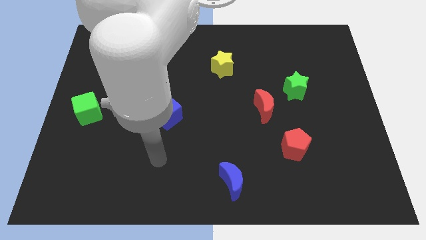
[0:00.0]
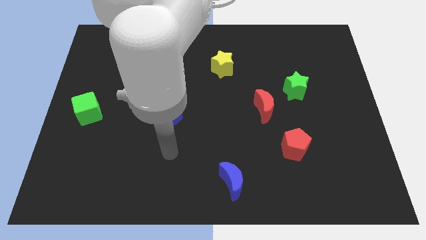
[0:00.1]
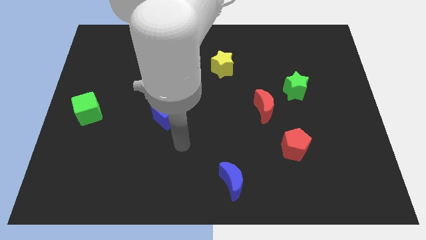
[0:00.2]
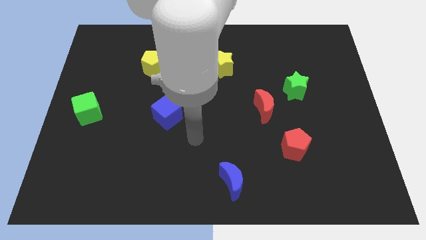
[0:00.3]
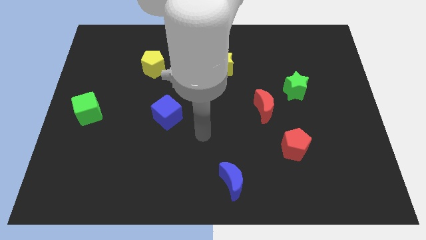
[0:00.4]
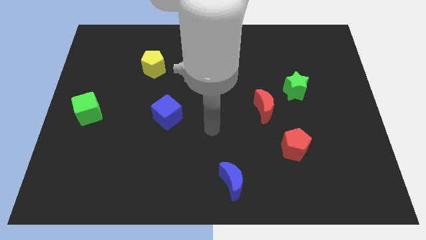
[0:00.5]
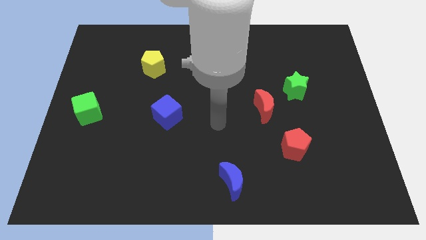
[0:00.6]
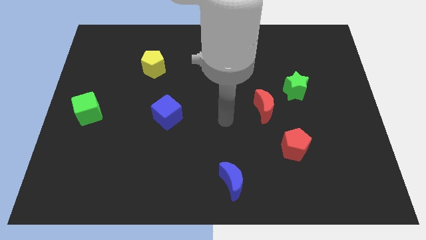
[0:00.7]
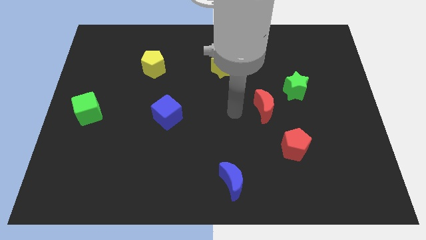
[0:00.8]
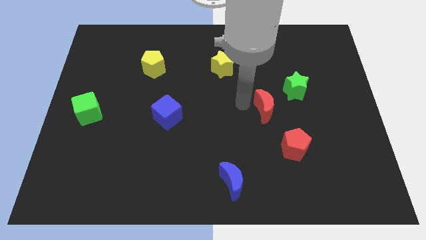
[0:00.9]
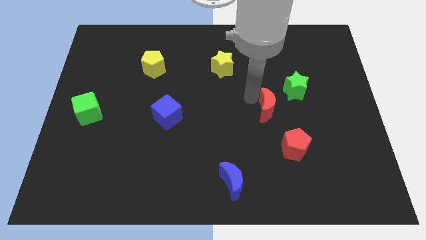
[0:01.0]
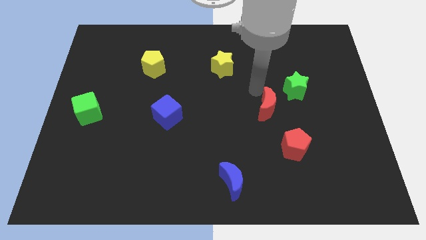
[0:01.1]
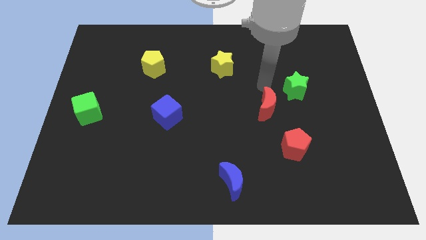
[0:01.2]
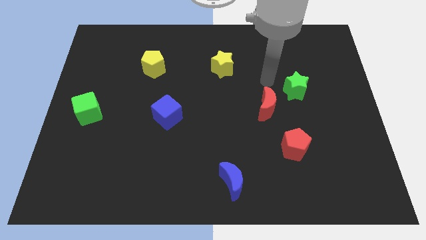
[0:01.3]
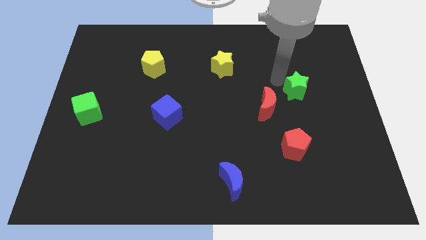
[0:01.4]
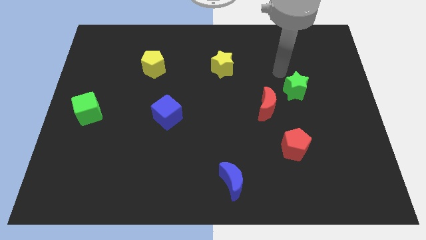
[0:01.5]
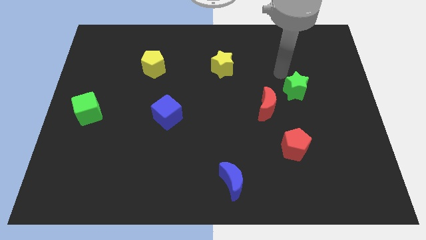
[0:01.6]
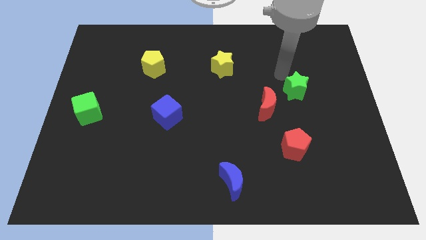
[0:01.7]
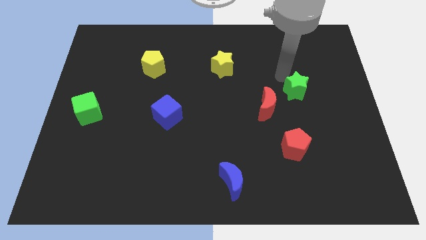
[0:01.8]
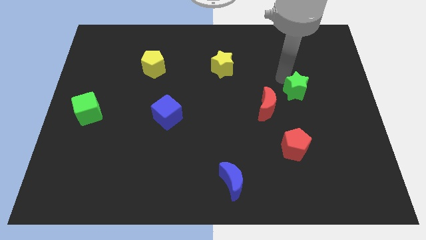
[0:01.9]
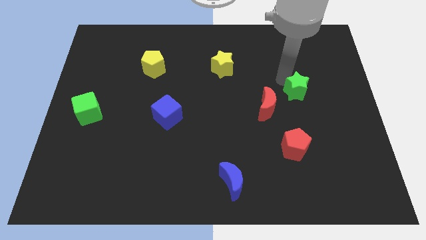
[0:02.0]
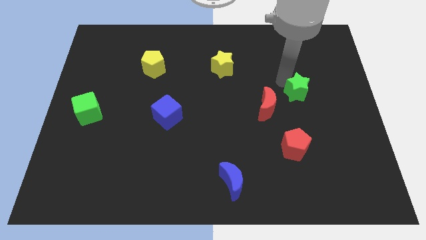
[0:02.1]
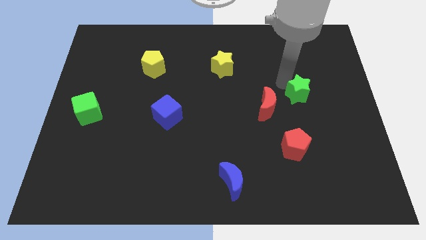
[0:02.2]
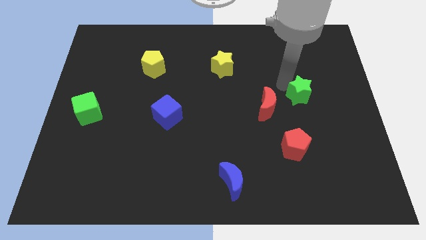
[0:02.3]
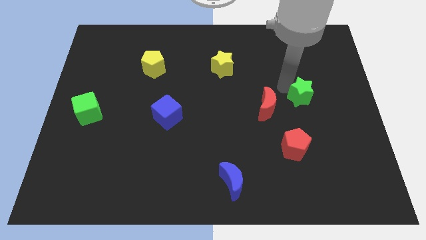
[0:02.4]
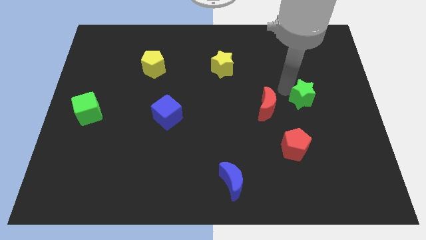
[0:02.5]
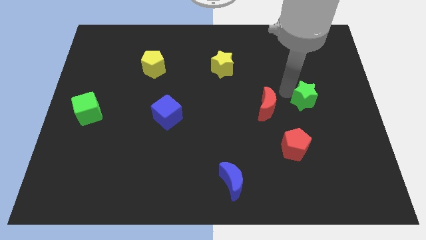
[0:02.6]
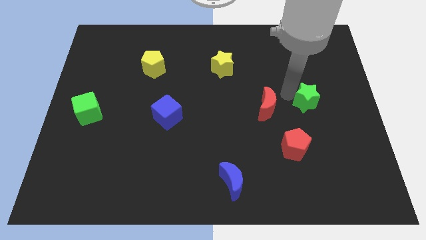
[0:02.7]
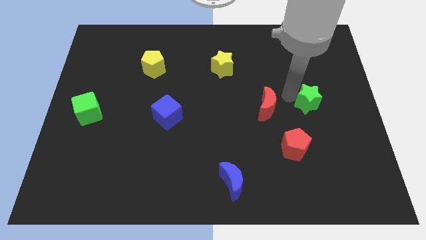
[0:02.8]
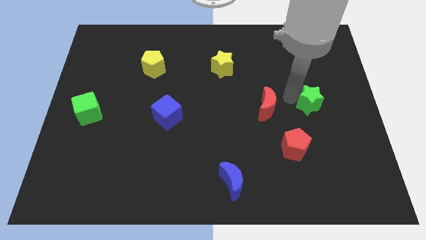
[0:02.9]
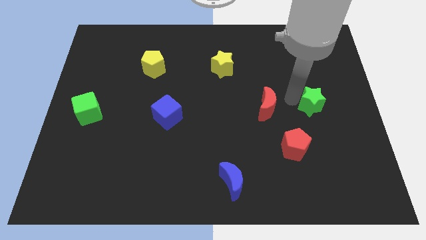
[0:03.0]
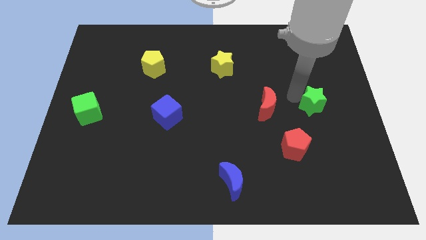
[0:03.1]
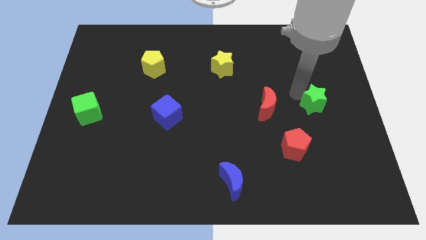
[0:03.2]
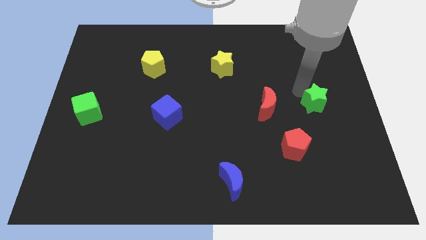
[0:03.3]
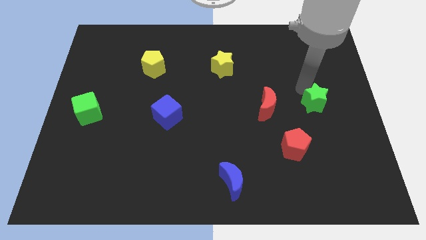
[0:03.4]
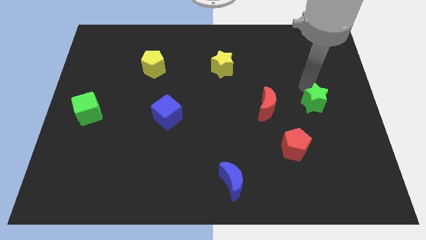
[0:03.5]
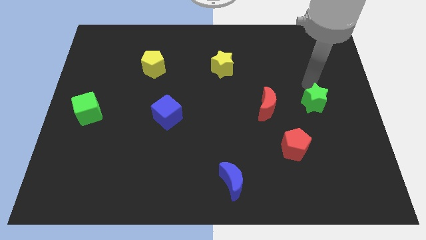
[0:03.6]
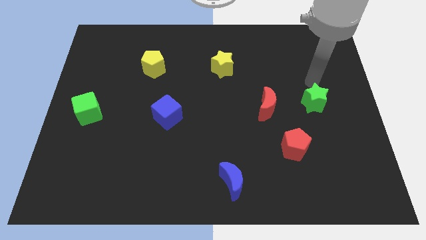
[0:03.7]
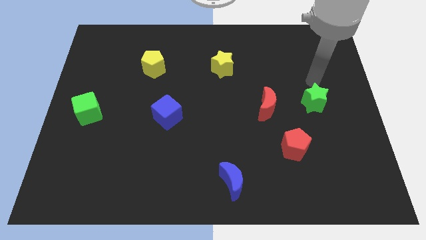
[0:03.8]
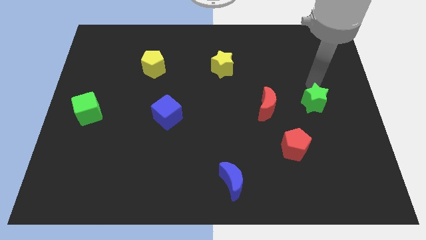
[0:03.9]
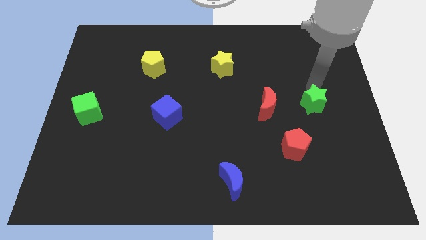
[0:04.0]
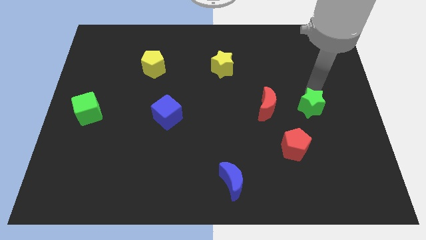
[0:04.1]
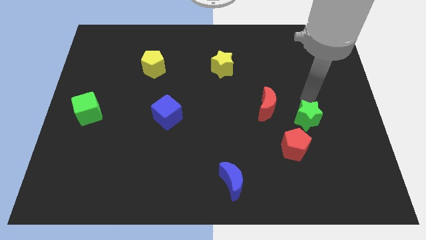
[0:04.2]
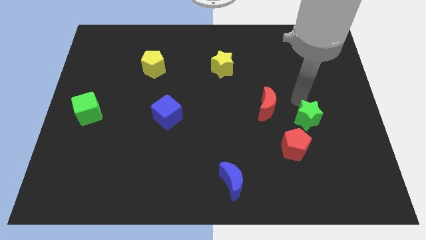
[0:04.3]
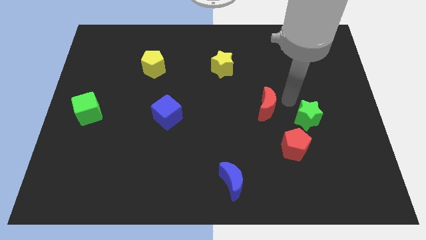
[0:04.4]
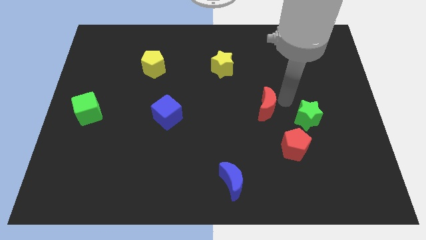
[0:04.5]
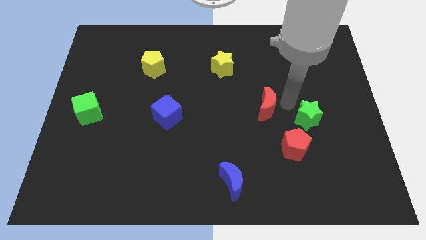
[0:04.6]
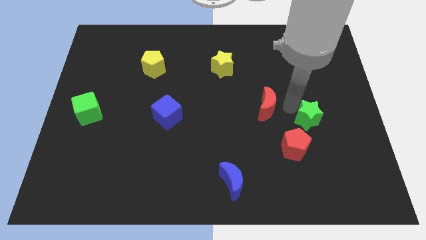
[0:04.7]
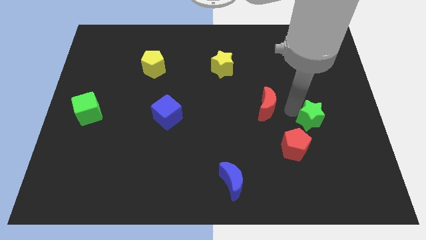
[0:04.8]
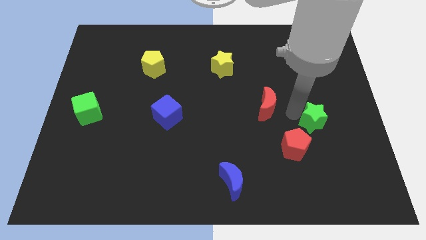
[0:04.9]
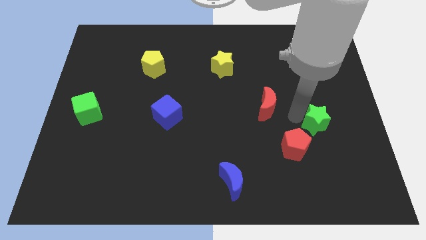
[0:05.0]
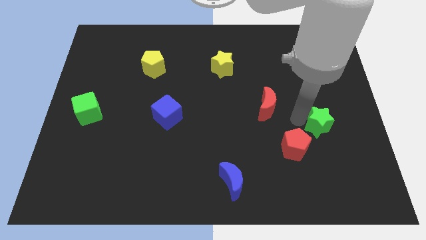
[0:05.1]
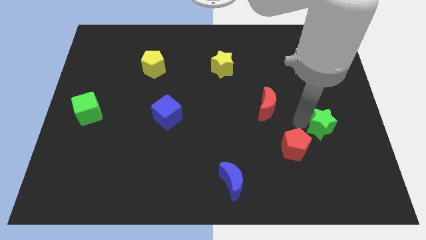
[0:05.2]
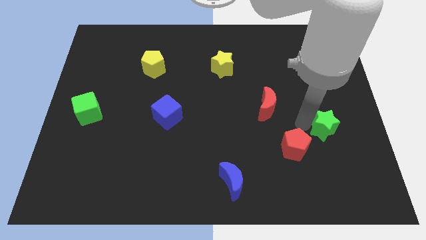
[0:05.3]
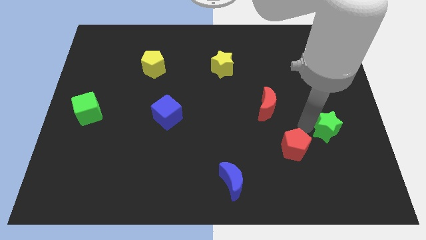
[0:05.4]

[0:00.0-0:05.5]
put the green star right of the red pentagon

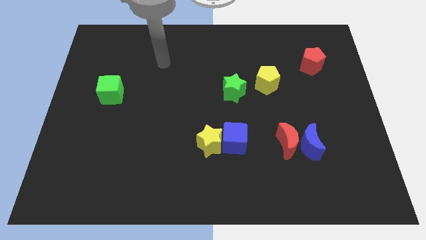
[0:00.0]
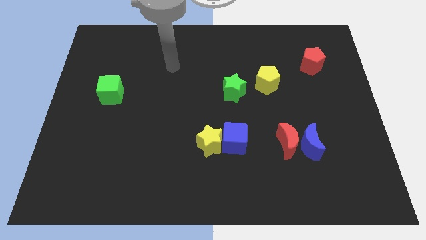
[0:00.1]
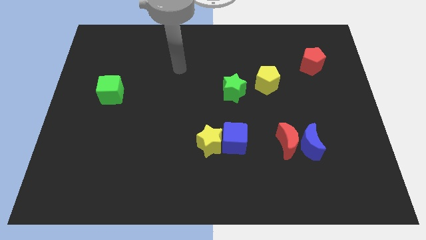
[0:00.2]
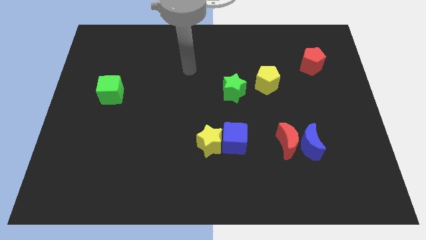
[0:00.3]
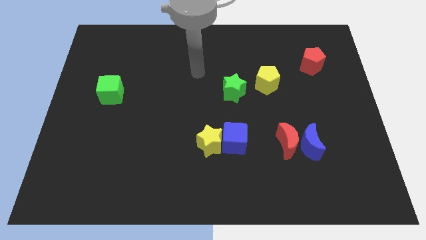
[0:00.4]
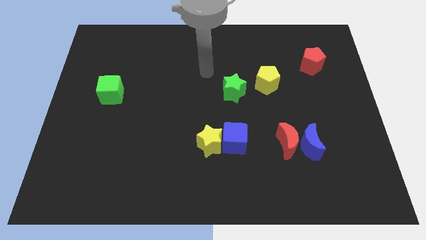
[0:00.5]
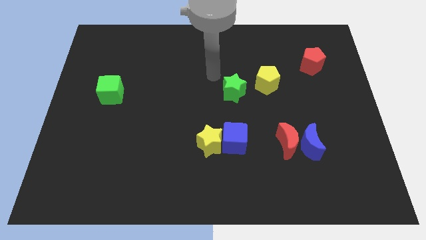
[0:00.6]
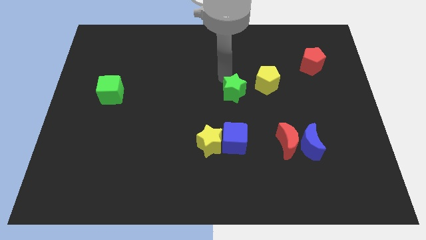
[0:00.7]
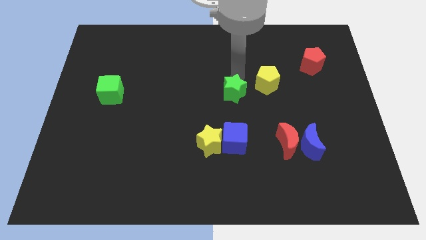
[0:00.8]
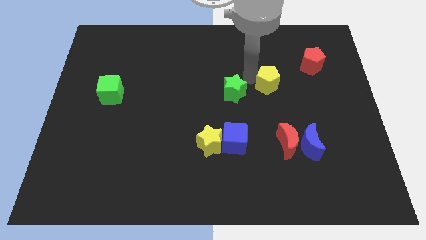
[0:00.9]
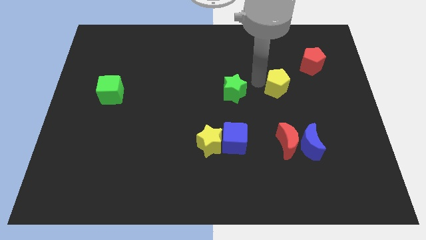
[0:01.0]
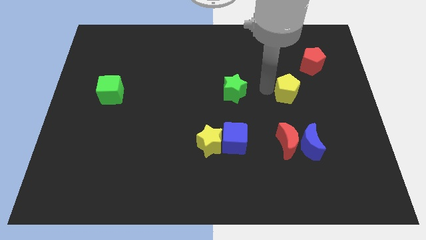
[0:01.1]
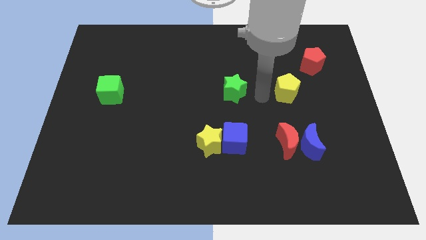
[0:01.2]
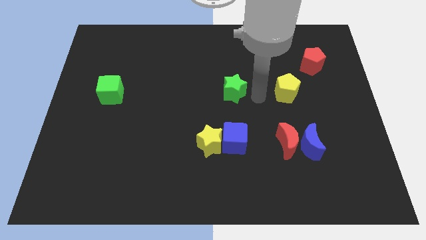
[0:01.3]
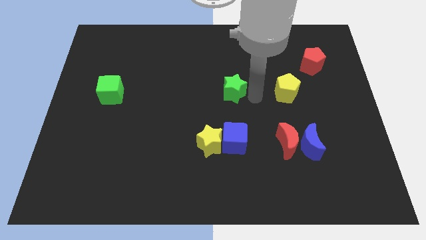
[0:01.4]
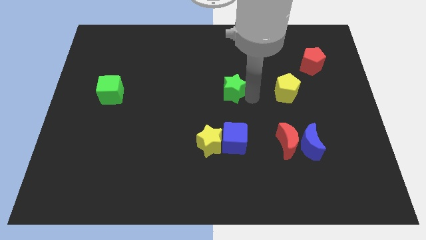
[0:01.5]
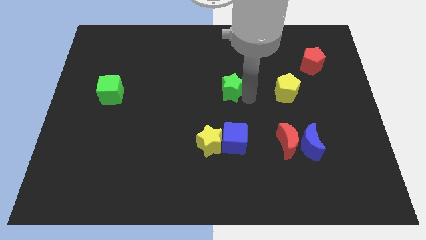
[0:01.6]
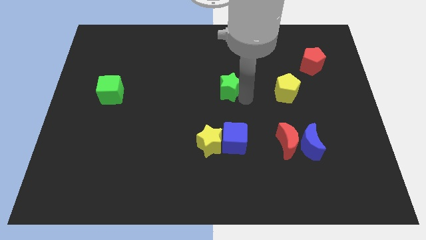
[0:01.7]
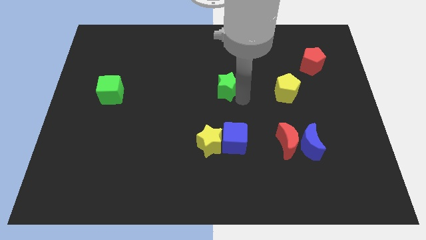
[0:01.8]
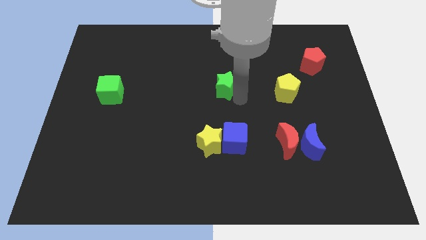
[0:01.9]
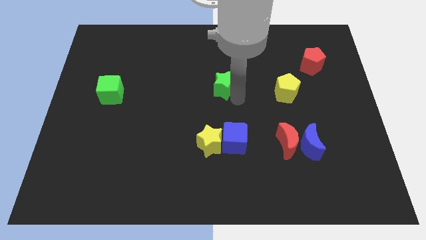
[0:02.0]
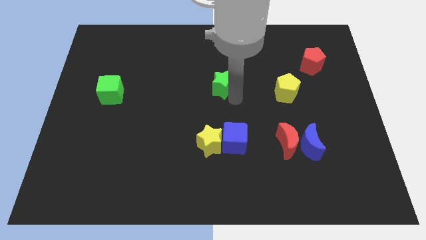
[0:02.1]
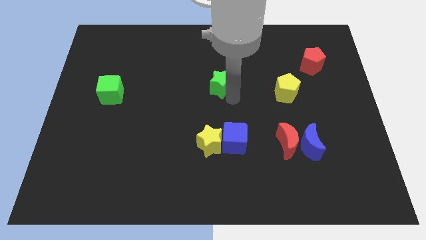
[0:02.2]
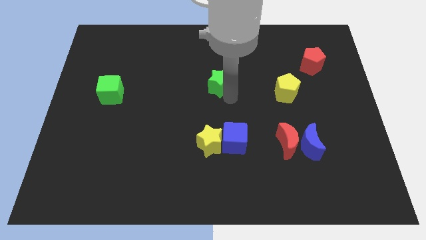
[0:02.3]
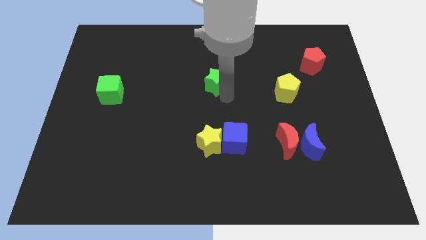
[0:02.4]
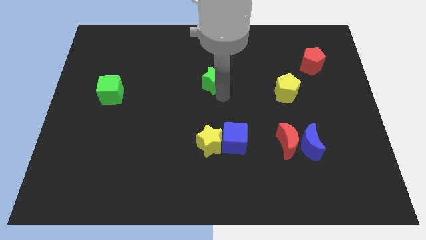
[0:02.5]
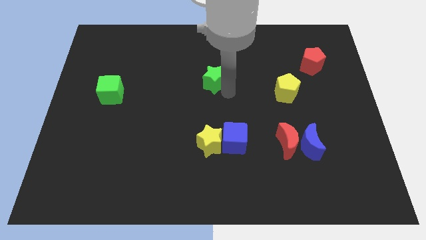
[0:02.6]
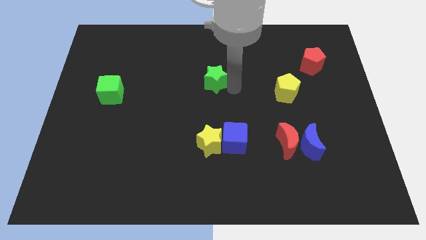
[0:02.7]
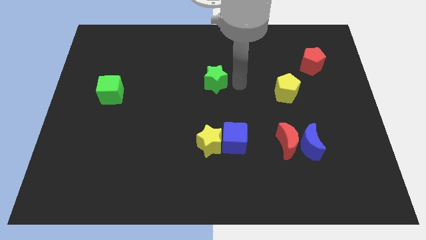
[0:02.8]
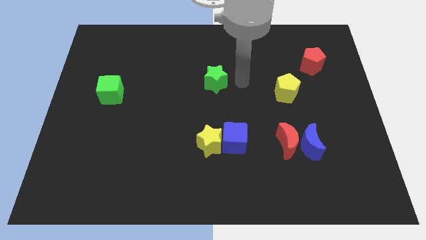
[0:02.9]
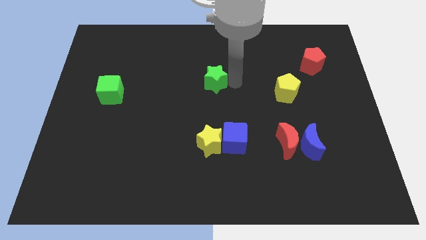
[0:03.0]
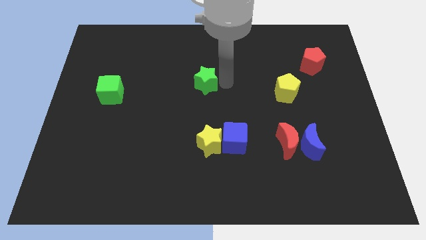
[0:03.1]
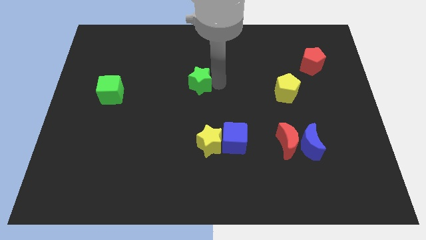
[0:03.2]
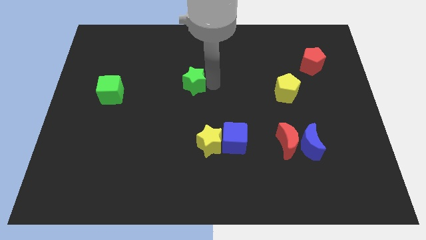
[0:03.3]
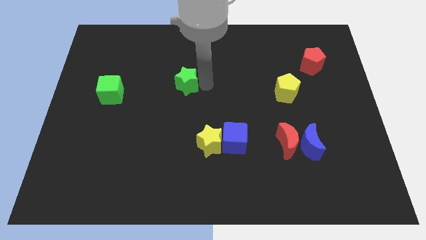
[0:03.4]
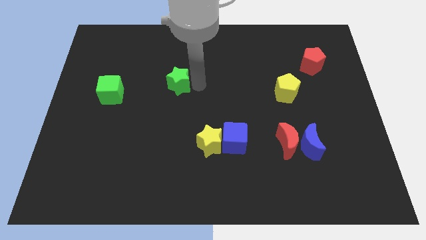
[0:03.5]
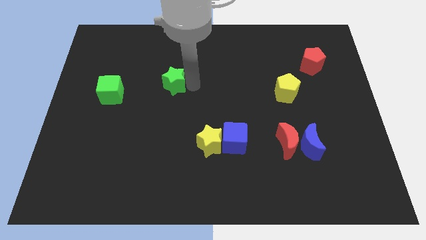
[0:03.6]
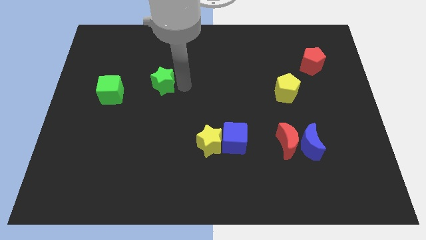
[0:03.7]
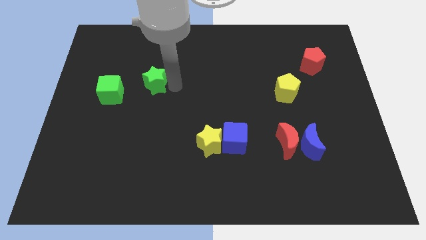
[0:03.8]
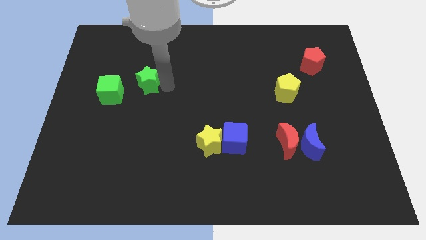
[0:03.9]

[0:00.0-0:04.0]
put the green star to the top right of the green cube
